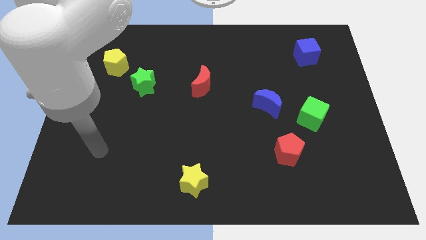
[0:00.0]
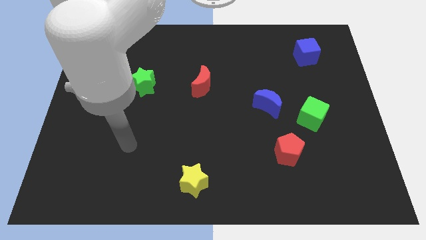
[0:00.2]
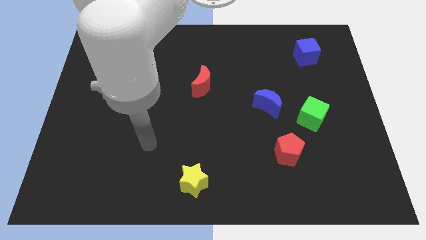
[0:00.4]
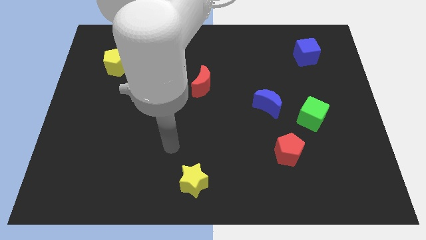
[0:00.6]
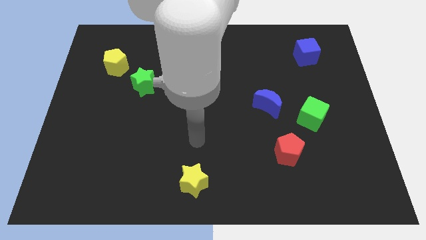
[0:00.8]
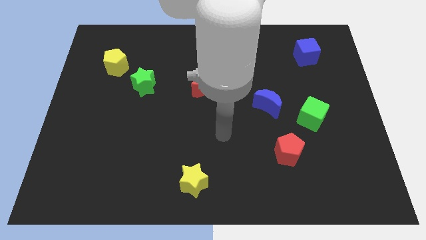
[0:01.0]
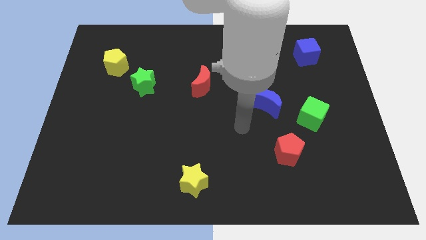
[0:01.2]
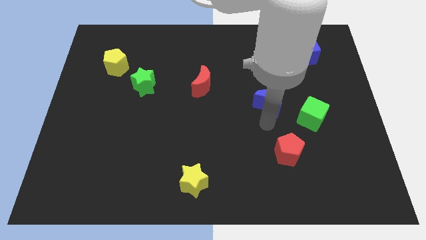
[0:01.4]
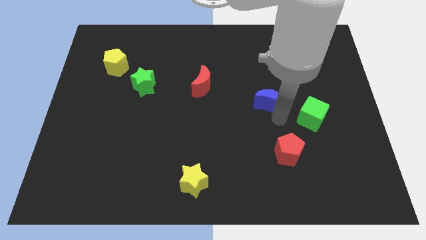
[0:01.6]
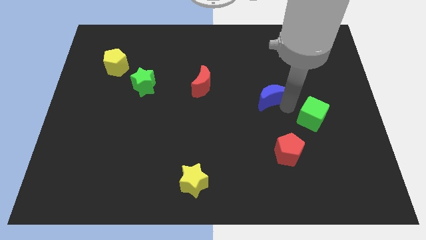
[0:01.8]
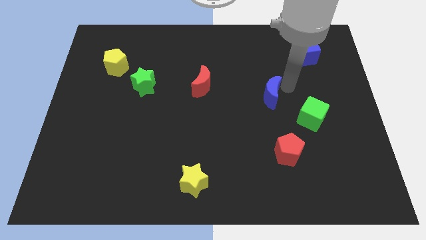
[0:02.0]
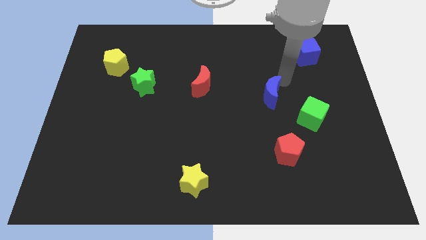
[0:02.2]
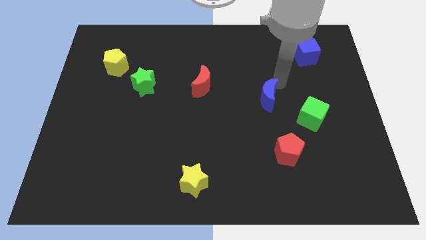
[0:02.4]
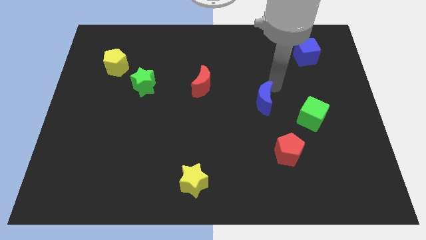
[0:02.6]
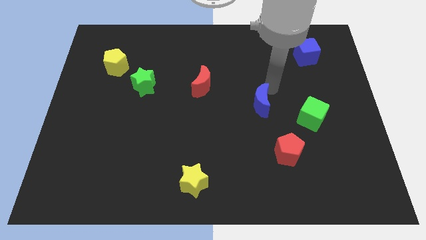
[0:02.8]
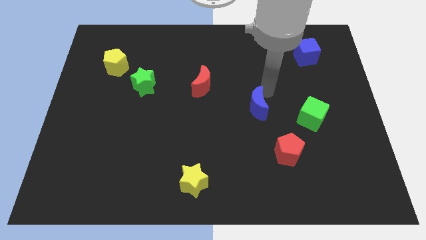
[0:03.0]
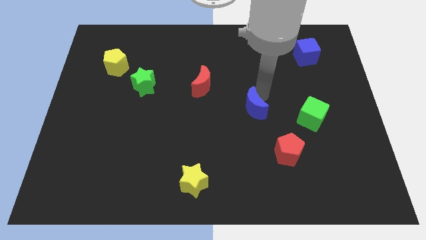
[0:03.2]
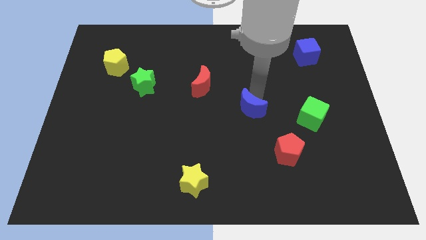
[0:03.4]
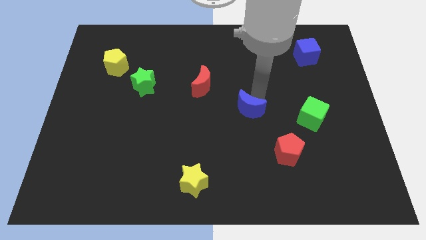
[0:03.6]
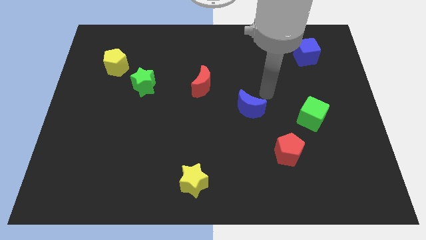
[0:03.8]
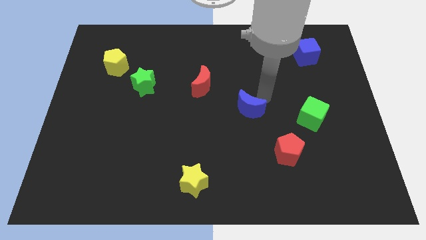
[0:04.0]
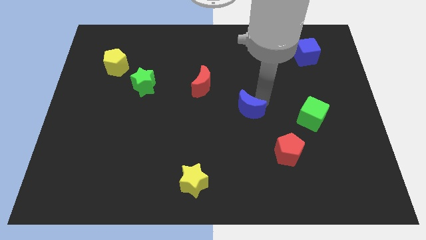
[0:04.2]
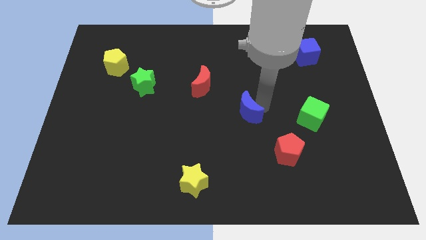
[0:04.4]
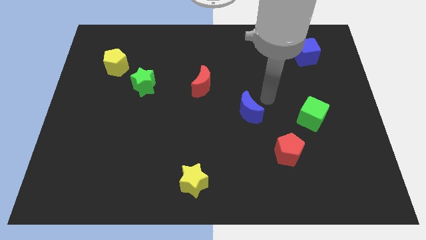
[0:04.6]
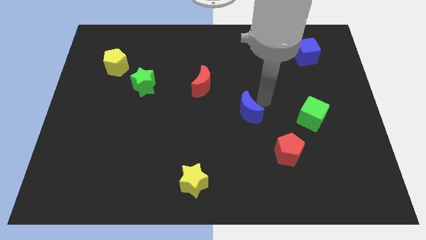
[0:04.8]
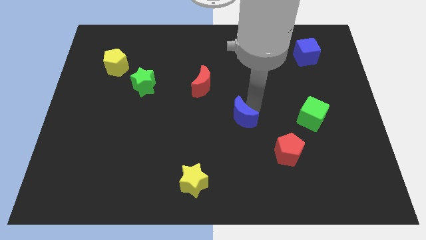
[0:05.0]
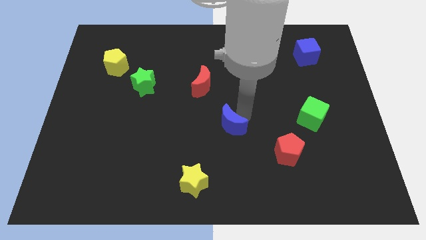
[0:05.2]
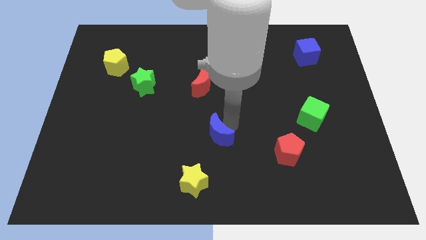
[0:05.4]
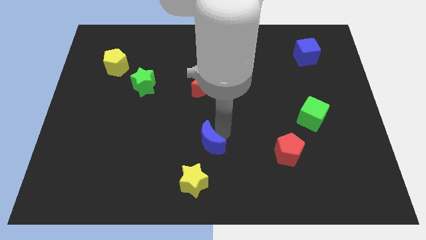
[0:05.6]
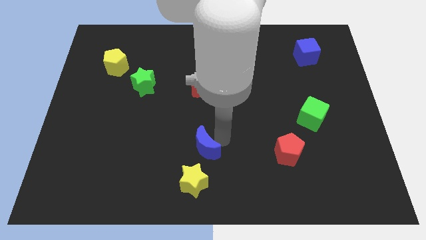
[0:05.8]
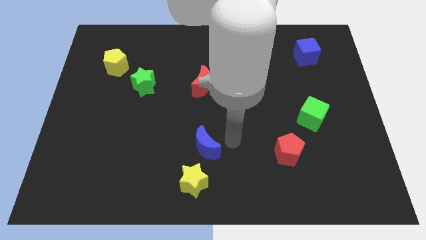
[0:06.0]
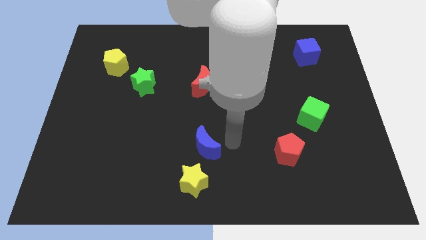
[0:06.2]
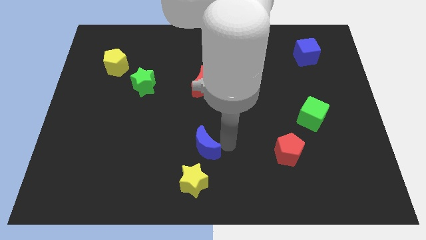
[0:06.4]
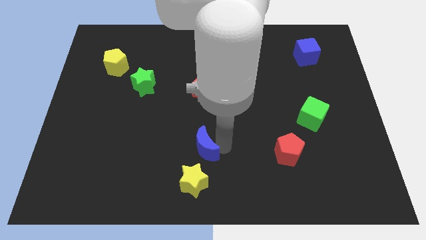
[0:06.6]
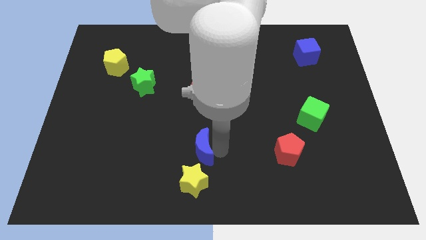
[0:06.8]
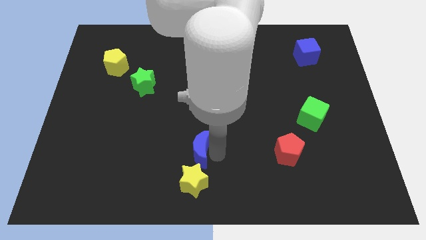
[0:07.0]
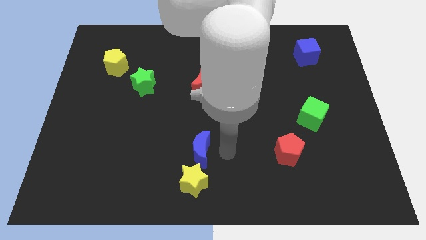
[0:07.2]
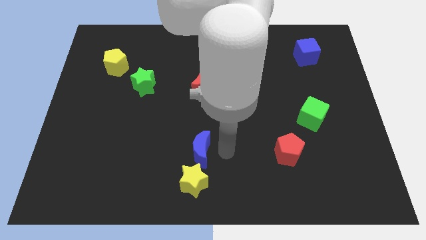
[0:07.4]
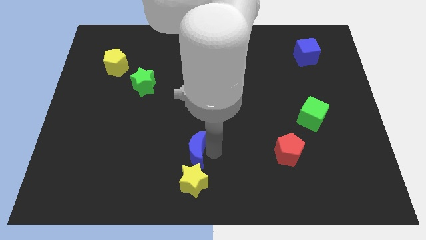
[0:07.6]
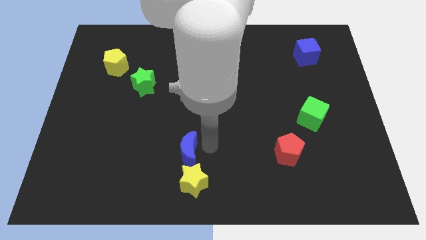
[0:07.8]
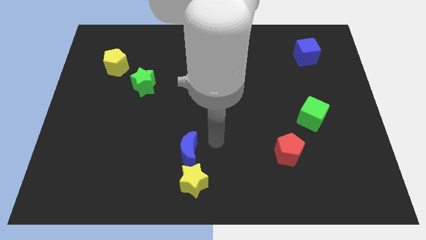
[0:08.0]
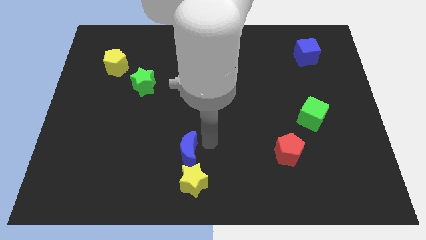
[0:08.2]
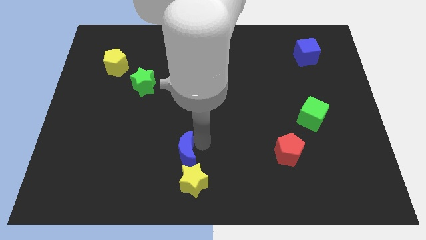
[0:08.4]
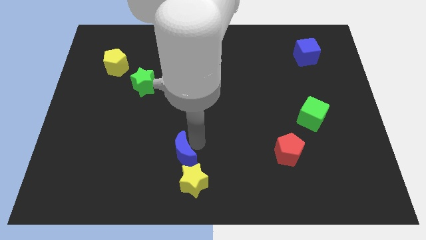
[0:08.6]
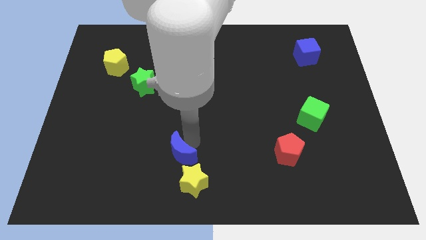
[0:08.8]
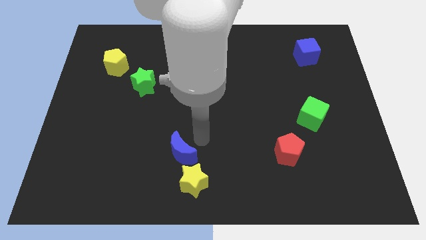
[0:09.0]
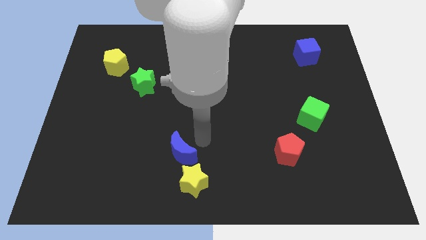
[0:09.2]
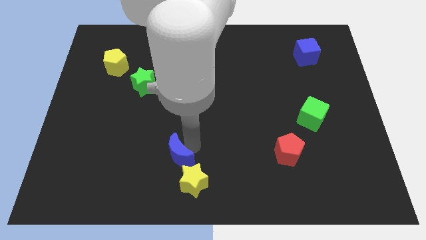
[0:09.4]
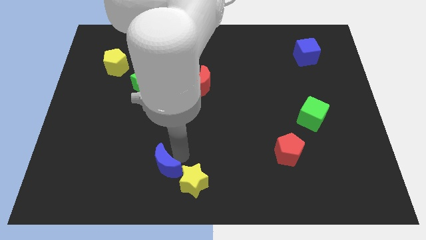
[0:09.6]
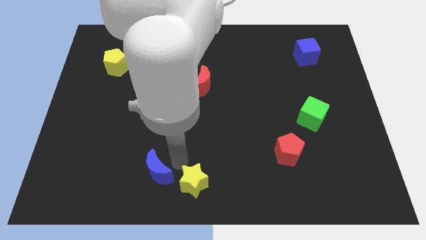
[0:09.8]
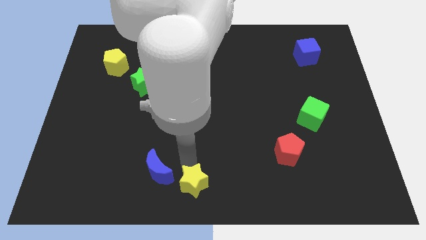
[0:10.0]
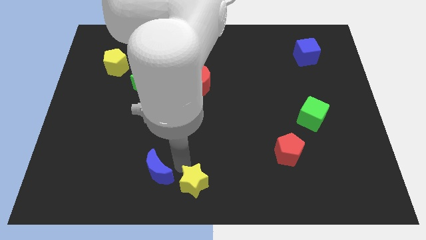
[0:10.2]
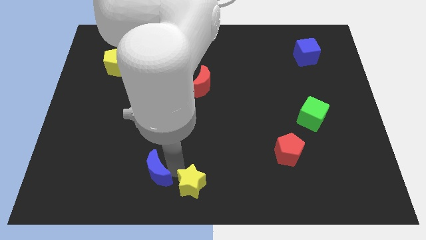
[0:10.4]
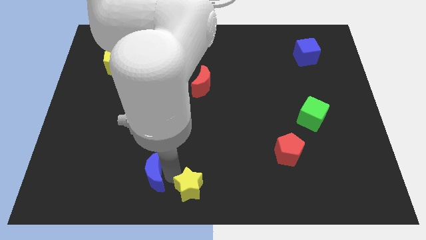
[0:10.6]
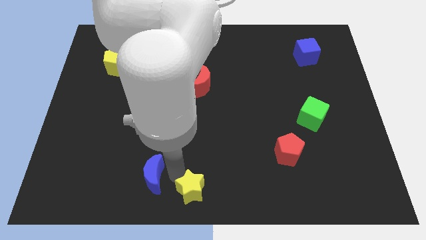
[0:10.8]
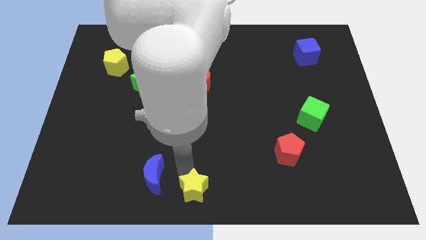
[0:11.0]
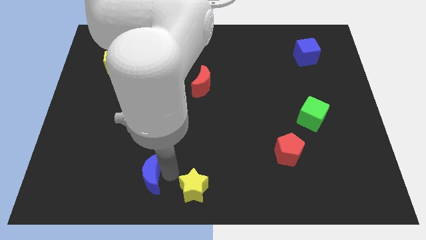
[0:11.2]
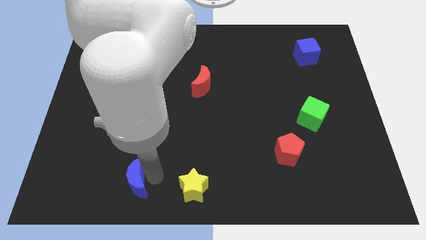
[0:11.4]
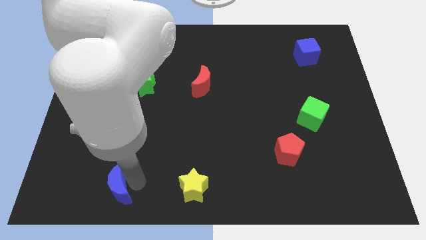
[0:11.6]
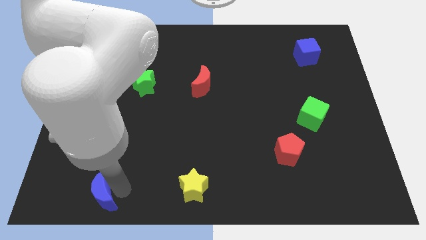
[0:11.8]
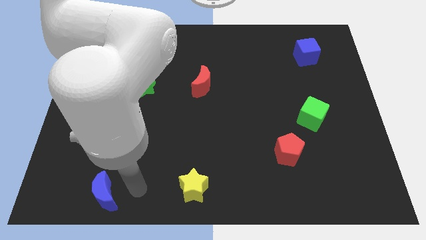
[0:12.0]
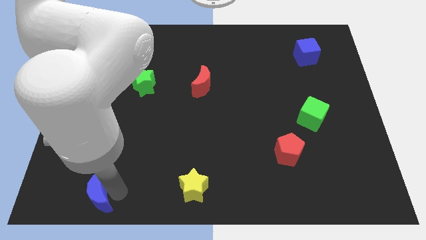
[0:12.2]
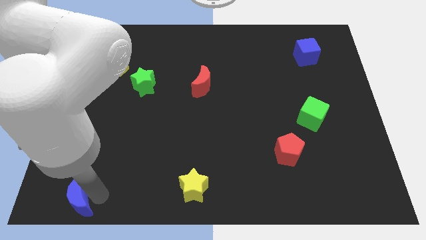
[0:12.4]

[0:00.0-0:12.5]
push the blue moon to the bottom left of the board

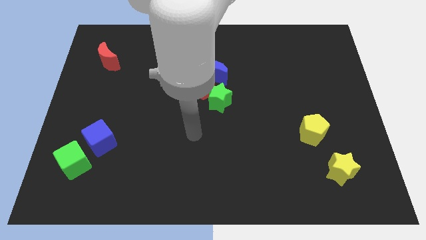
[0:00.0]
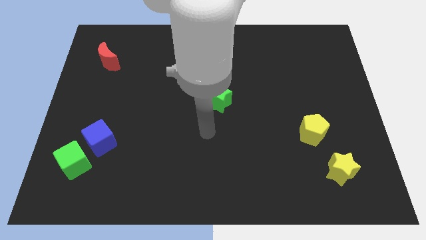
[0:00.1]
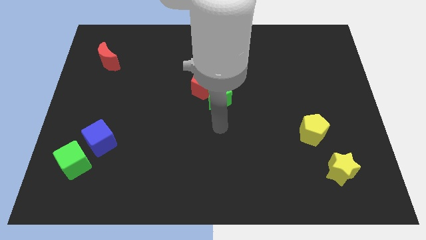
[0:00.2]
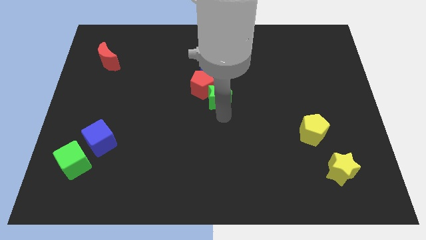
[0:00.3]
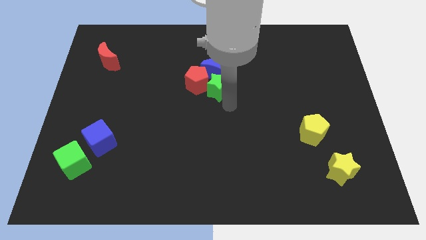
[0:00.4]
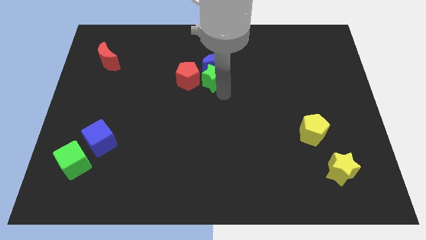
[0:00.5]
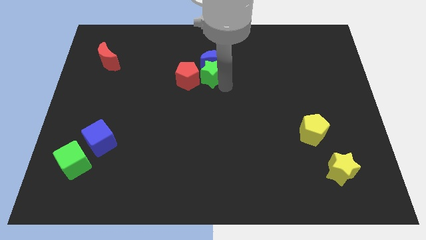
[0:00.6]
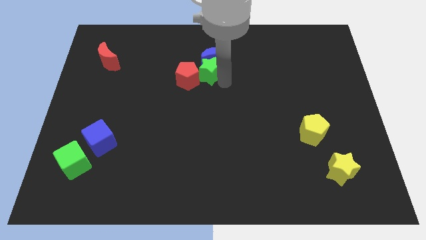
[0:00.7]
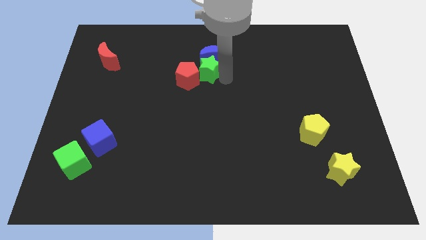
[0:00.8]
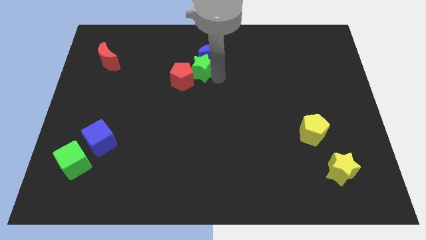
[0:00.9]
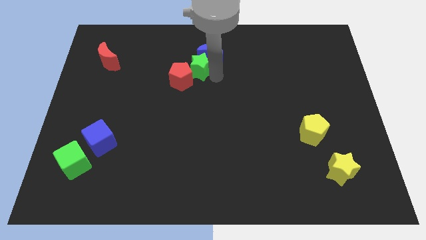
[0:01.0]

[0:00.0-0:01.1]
push the blue moon to the top
